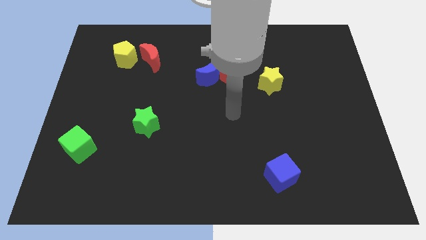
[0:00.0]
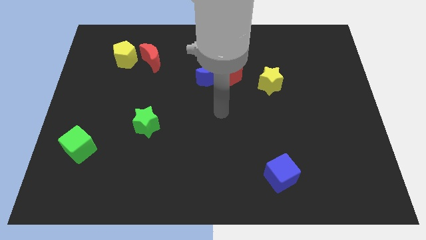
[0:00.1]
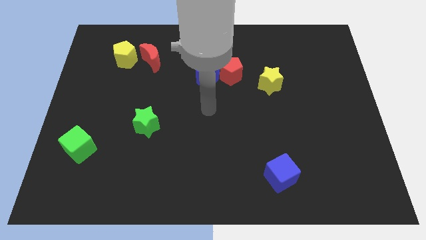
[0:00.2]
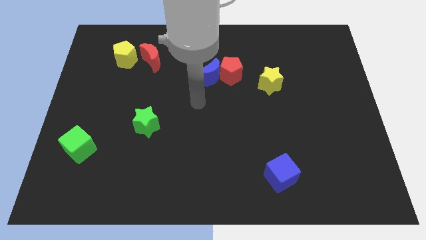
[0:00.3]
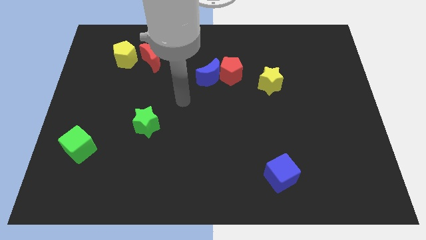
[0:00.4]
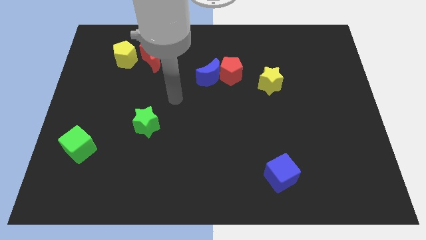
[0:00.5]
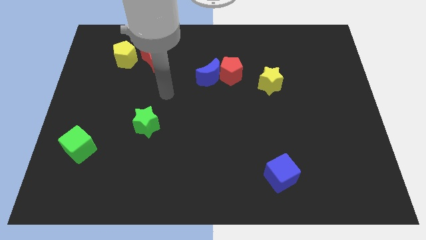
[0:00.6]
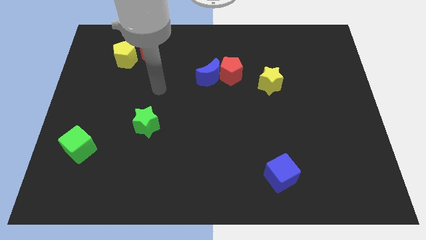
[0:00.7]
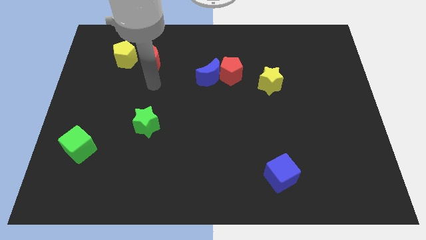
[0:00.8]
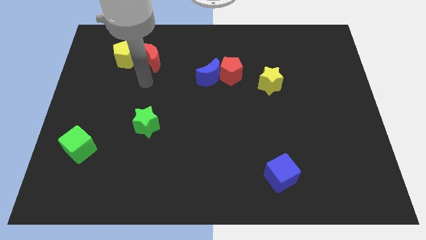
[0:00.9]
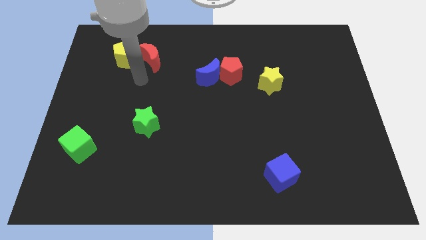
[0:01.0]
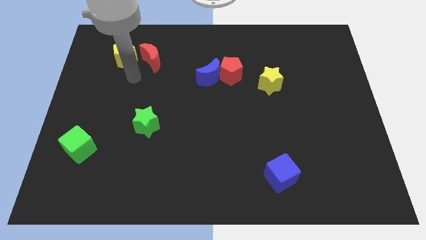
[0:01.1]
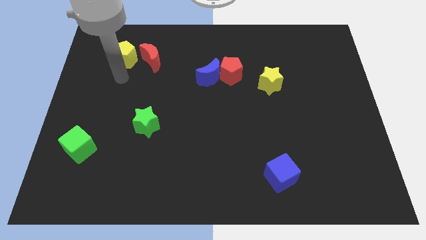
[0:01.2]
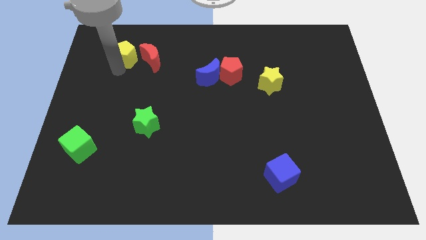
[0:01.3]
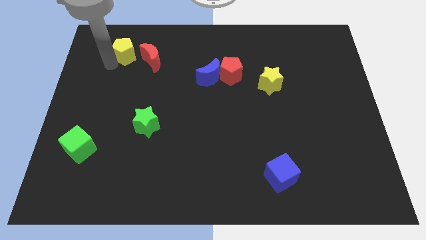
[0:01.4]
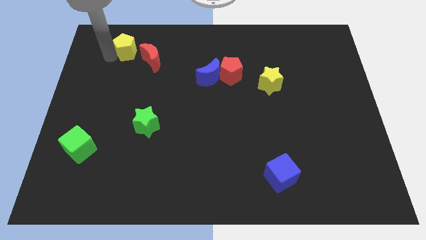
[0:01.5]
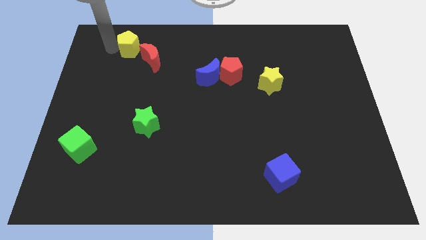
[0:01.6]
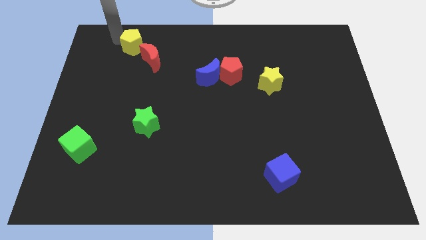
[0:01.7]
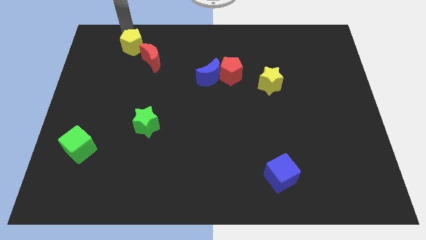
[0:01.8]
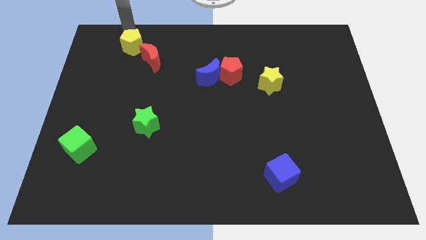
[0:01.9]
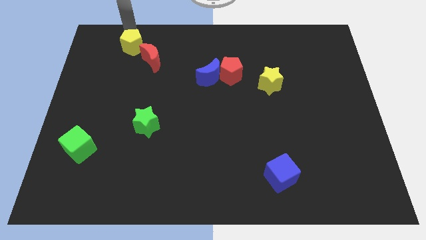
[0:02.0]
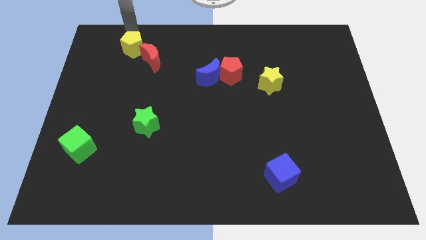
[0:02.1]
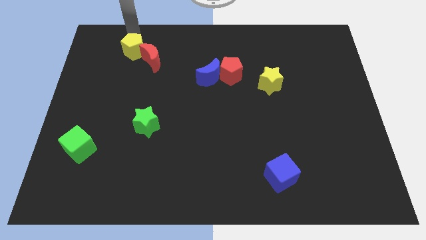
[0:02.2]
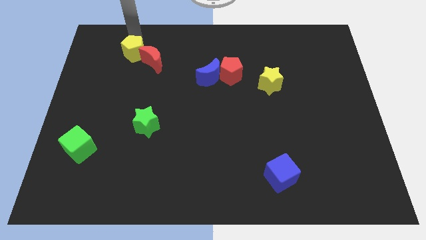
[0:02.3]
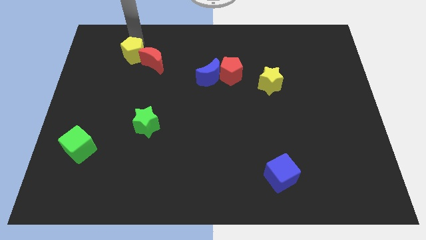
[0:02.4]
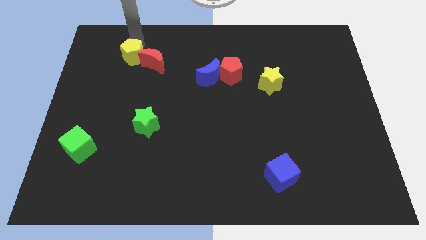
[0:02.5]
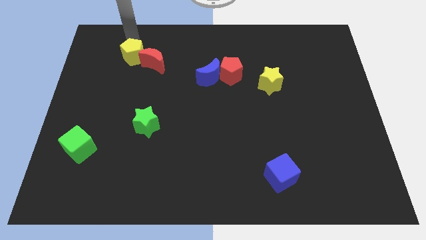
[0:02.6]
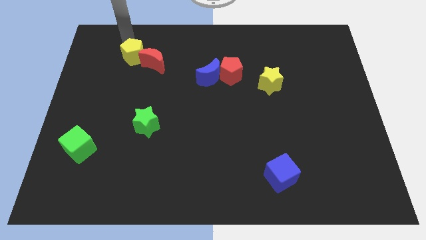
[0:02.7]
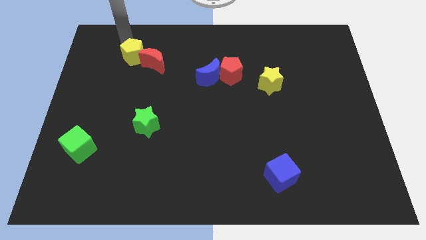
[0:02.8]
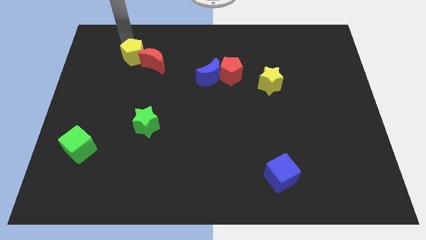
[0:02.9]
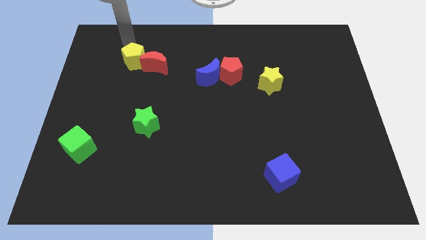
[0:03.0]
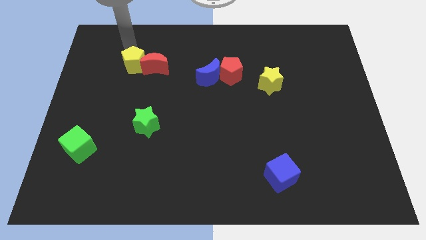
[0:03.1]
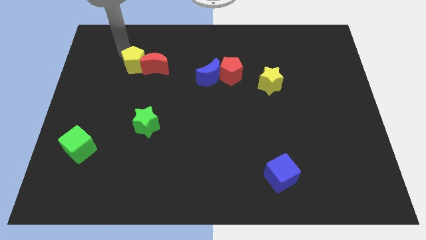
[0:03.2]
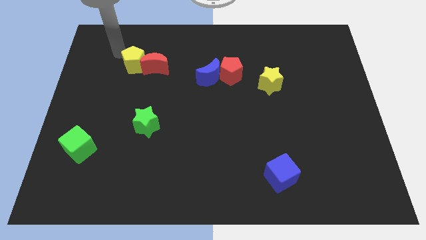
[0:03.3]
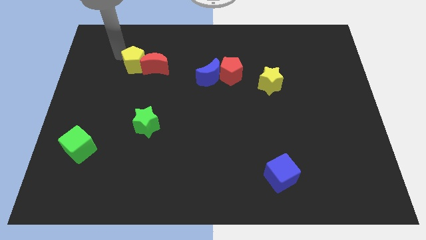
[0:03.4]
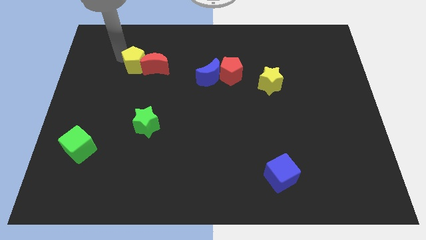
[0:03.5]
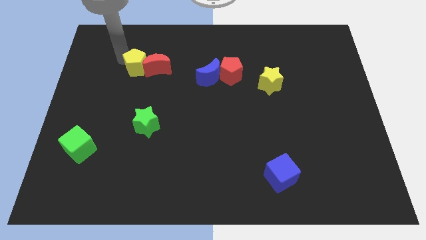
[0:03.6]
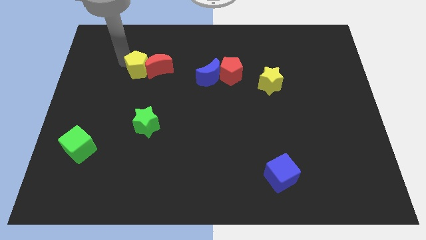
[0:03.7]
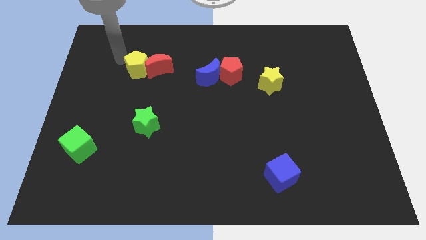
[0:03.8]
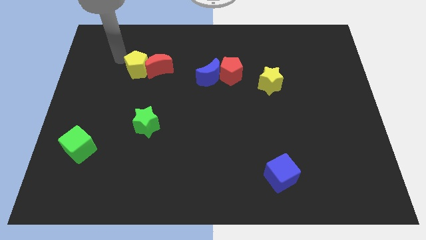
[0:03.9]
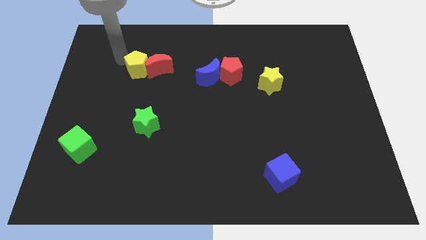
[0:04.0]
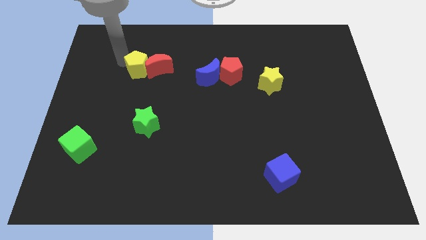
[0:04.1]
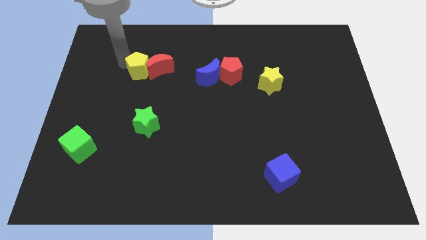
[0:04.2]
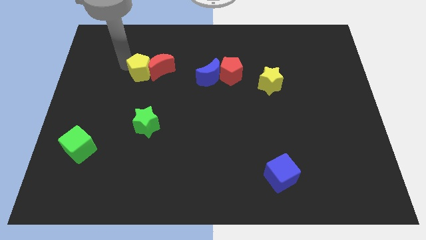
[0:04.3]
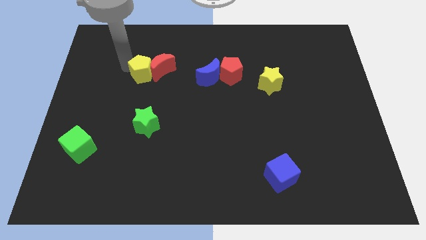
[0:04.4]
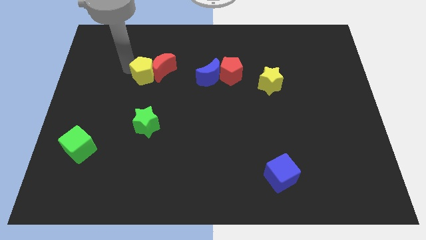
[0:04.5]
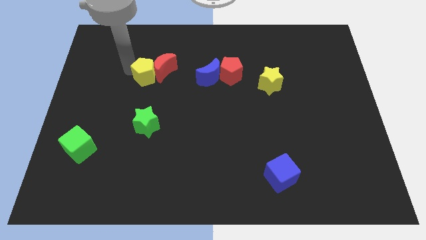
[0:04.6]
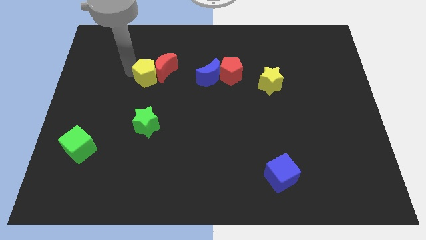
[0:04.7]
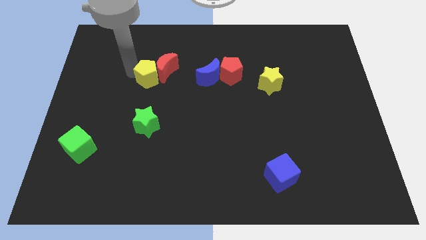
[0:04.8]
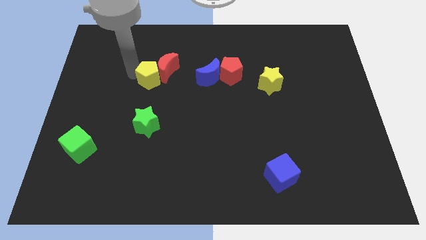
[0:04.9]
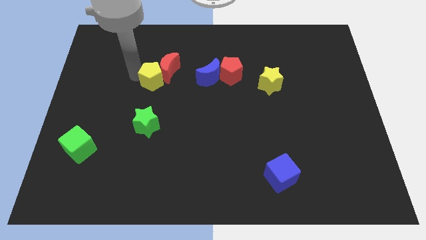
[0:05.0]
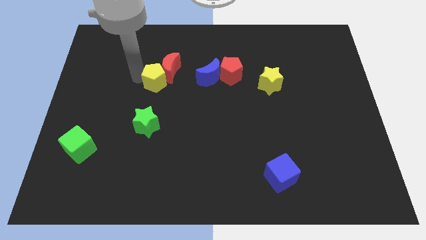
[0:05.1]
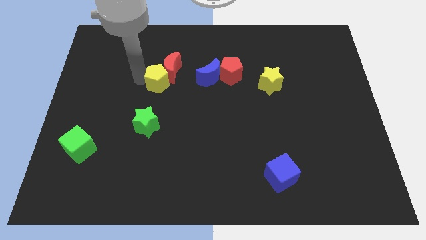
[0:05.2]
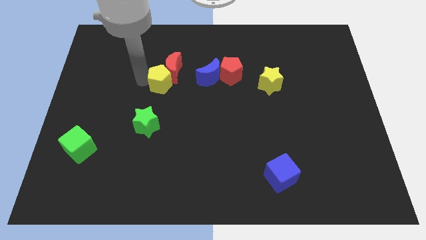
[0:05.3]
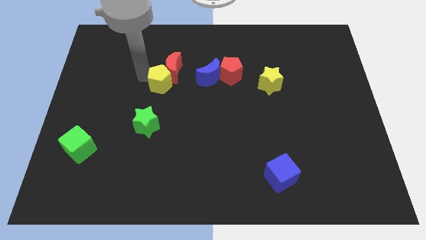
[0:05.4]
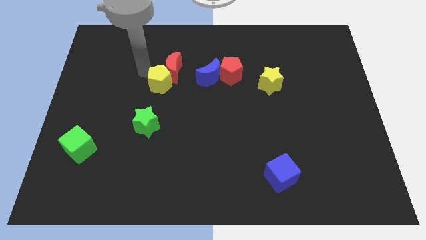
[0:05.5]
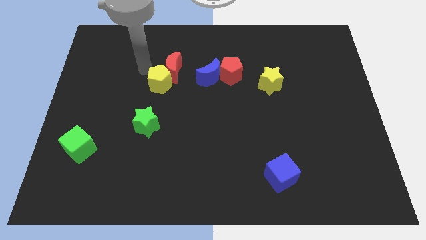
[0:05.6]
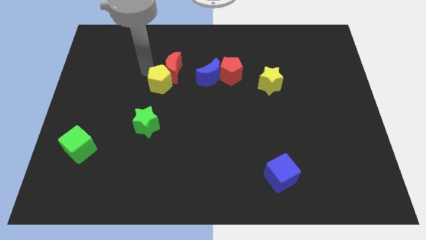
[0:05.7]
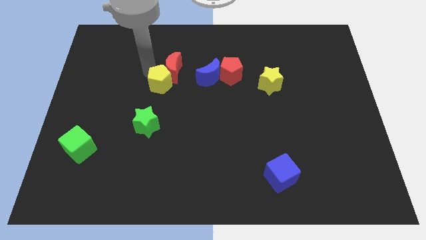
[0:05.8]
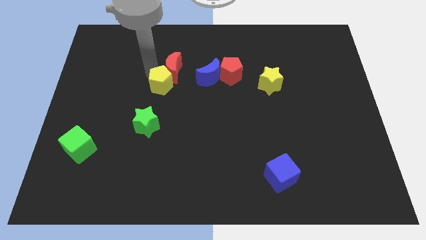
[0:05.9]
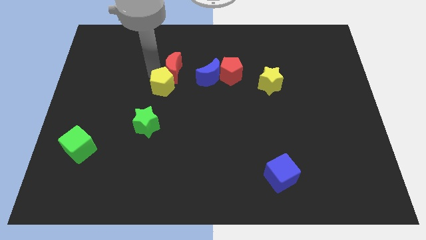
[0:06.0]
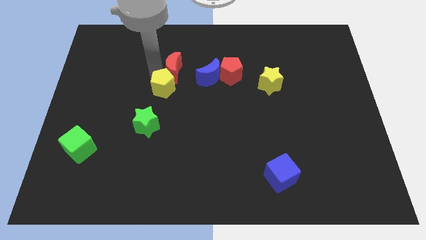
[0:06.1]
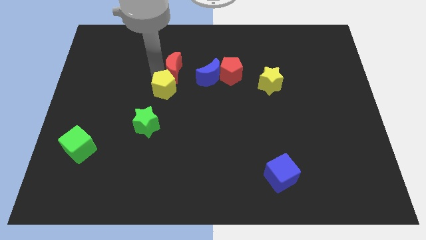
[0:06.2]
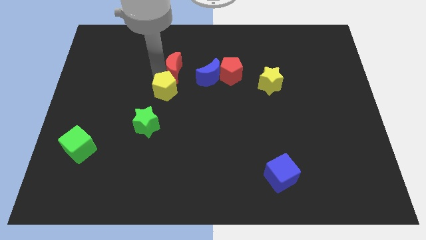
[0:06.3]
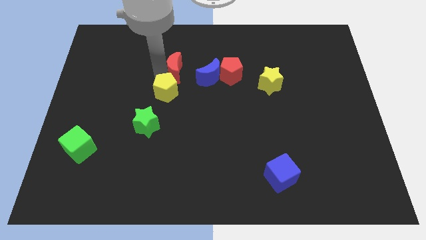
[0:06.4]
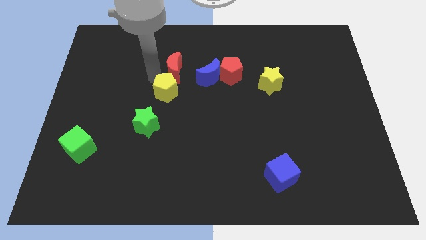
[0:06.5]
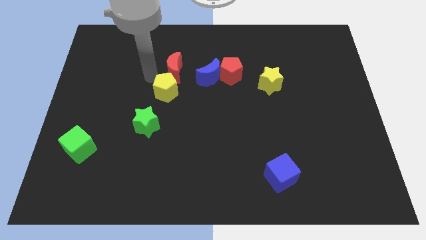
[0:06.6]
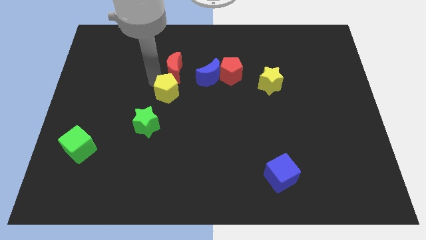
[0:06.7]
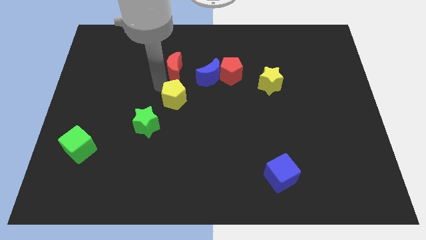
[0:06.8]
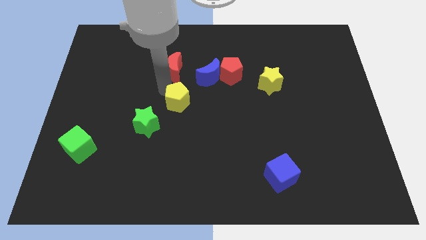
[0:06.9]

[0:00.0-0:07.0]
move the yellow pentagon down and to the right diagonally

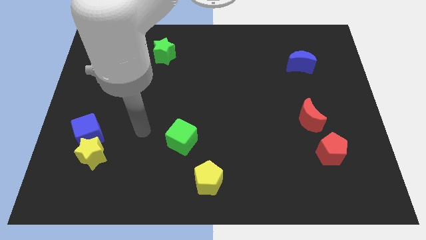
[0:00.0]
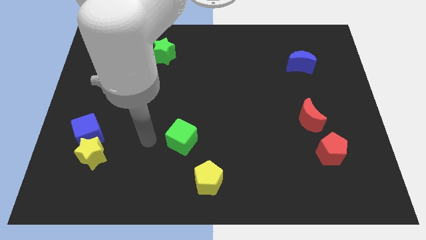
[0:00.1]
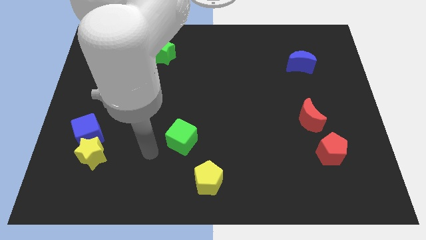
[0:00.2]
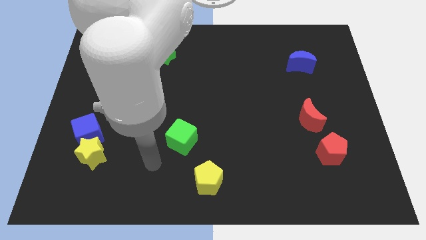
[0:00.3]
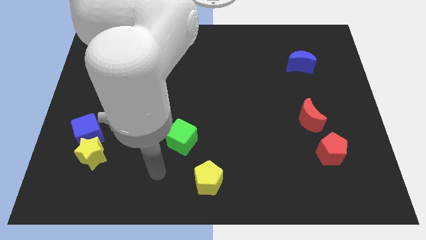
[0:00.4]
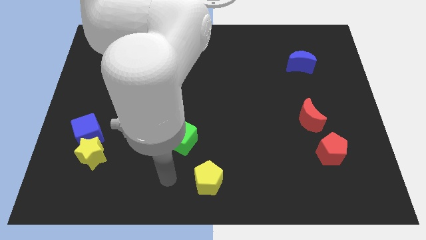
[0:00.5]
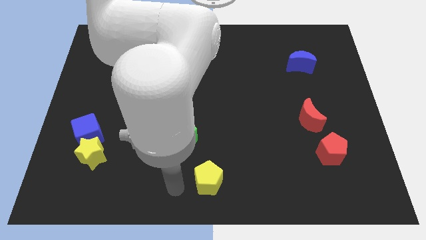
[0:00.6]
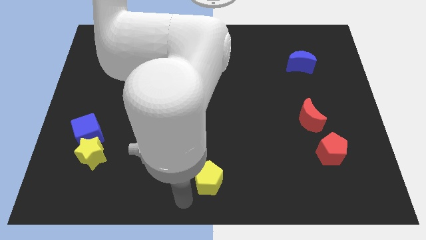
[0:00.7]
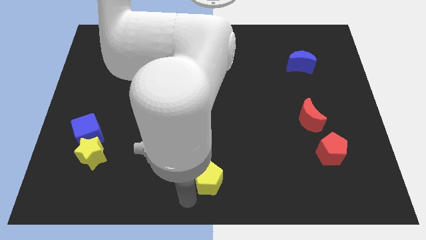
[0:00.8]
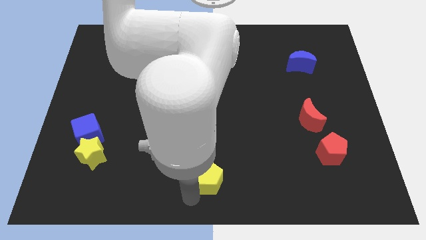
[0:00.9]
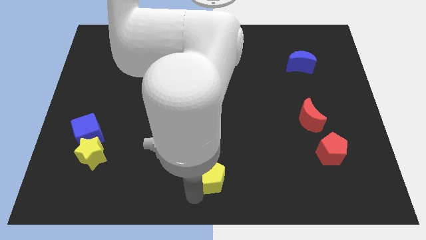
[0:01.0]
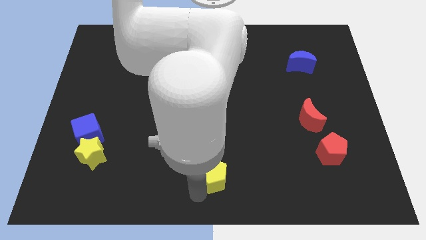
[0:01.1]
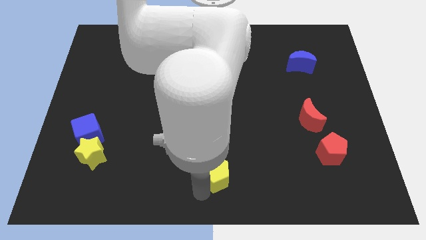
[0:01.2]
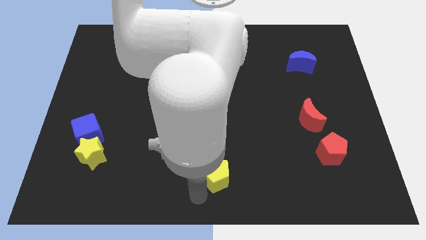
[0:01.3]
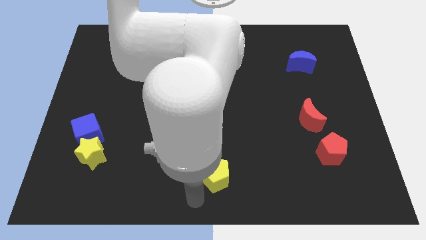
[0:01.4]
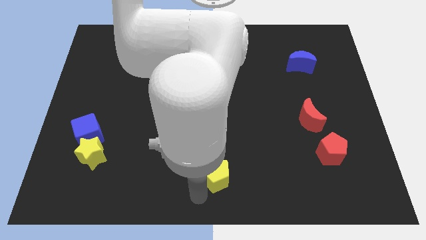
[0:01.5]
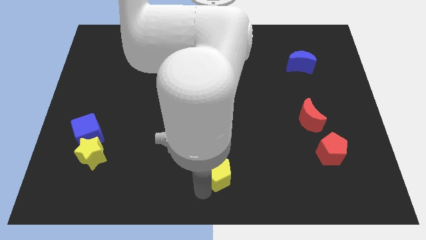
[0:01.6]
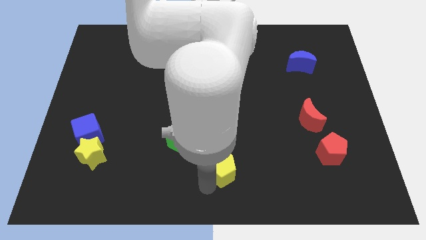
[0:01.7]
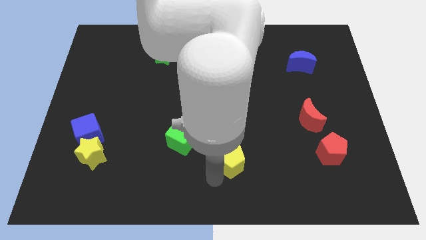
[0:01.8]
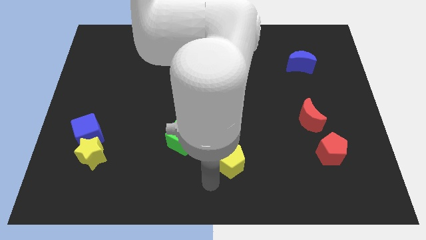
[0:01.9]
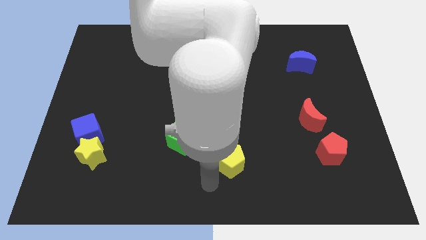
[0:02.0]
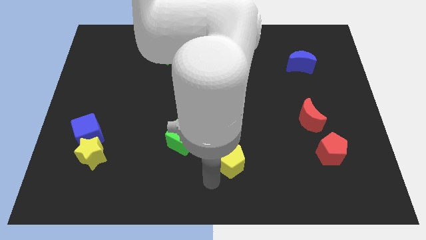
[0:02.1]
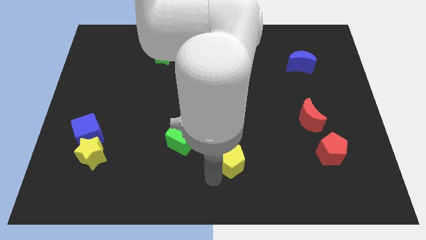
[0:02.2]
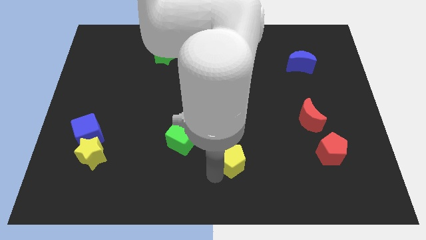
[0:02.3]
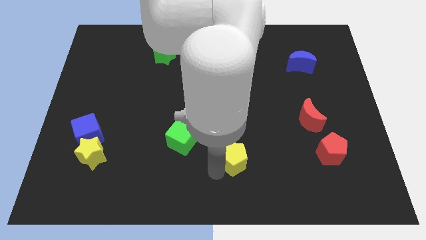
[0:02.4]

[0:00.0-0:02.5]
slide the yellow pentagon diagonally upwards and to the right somewhat
